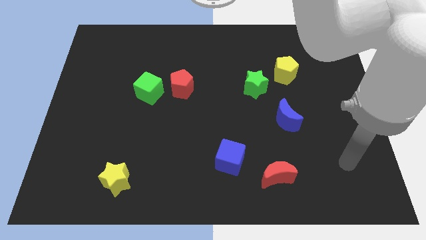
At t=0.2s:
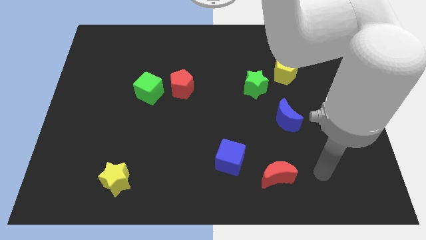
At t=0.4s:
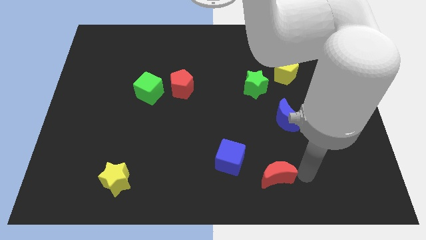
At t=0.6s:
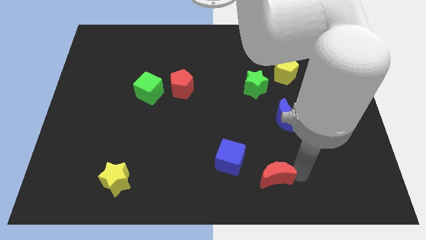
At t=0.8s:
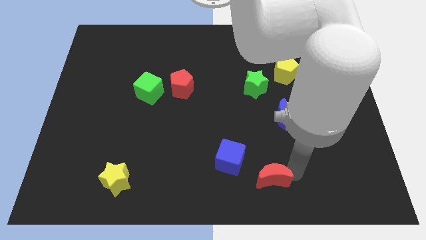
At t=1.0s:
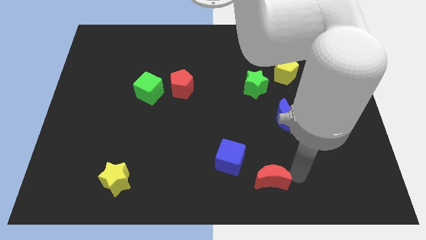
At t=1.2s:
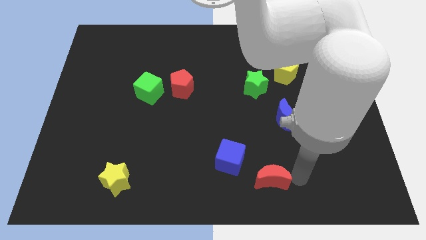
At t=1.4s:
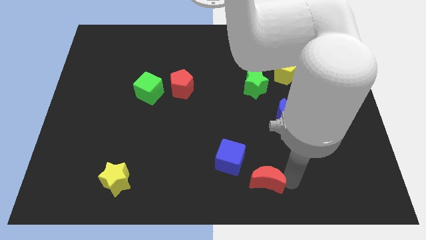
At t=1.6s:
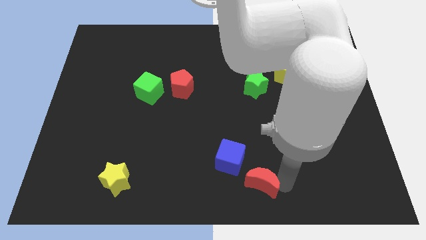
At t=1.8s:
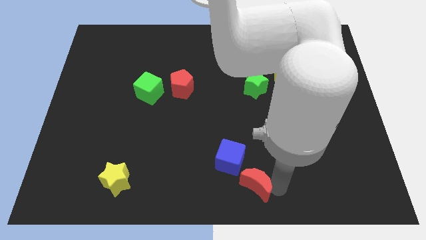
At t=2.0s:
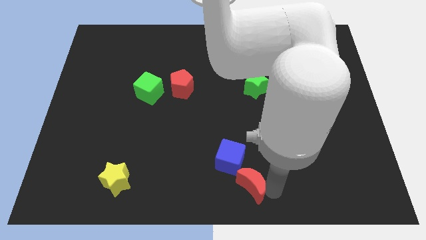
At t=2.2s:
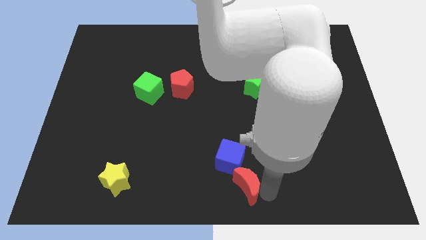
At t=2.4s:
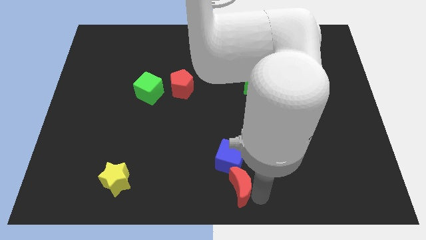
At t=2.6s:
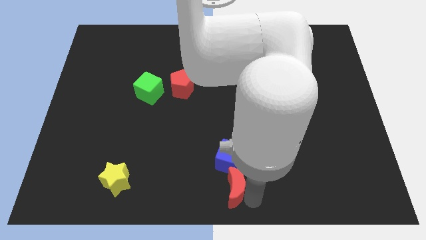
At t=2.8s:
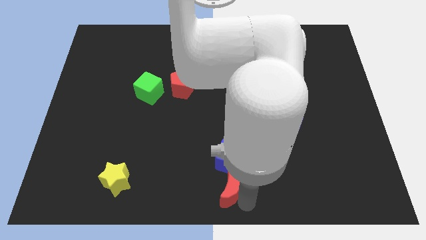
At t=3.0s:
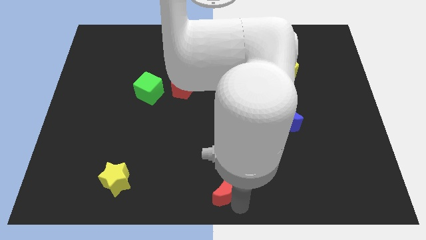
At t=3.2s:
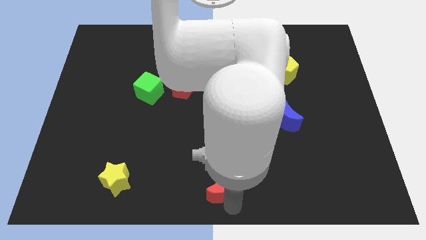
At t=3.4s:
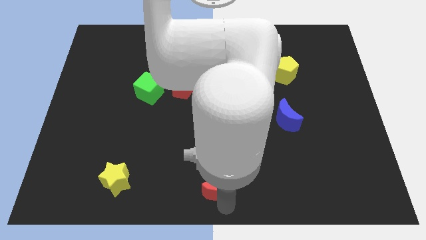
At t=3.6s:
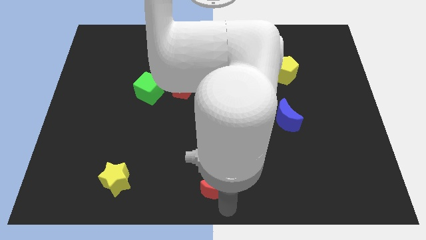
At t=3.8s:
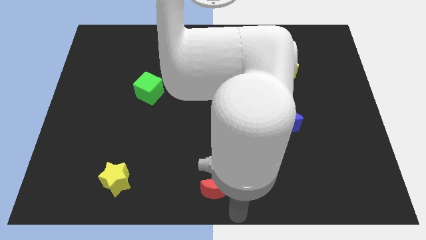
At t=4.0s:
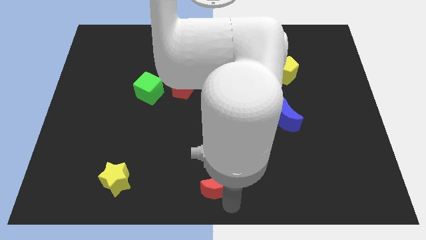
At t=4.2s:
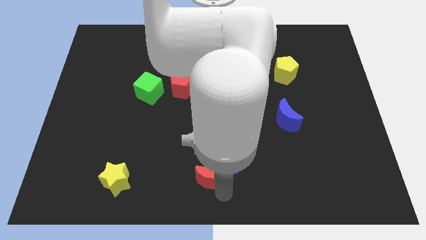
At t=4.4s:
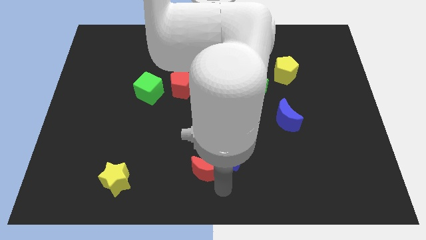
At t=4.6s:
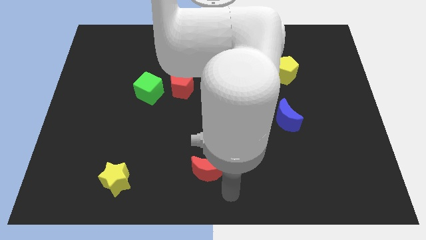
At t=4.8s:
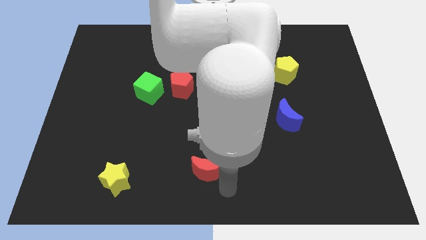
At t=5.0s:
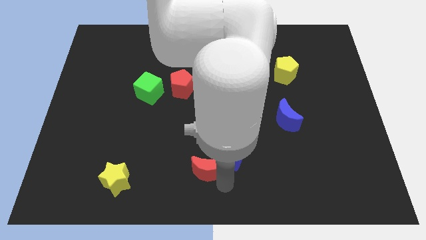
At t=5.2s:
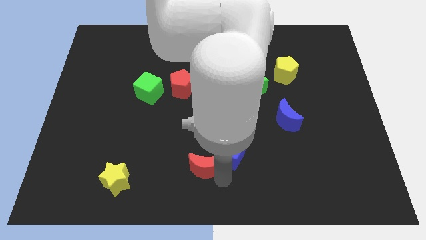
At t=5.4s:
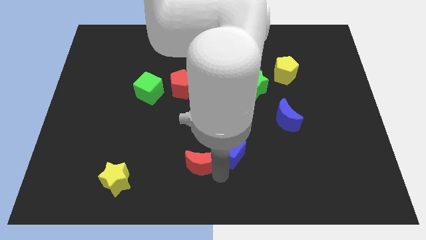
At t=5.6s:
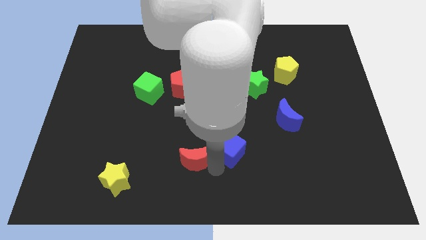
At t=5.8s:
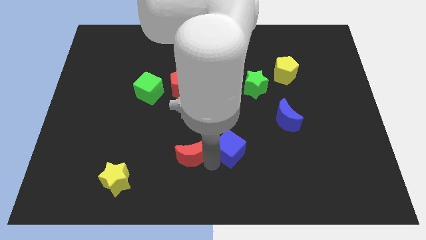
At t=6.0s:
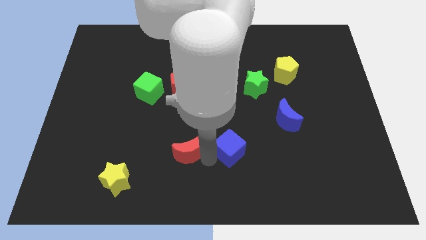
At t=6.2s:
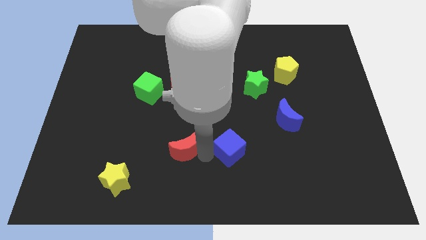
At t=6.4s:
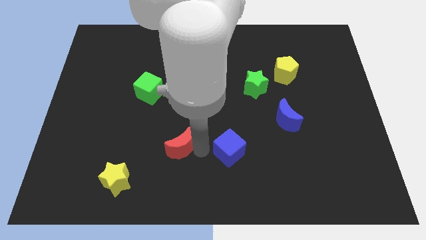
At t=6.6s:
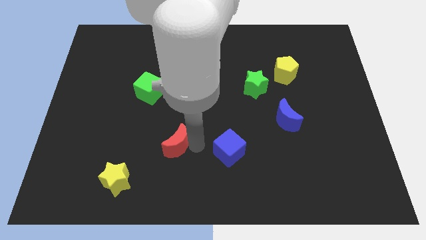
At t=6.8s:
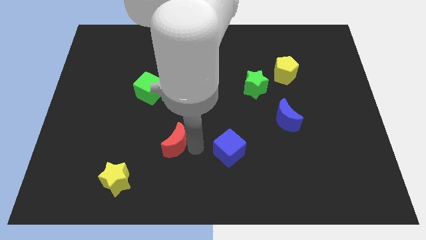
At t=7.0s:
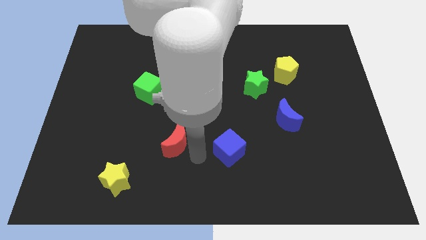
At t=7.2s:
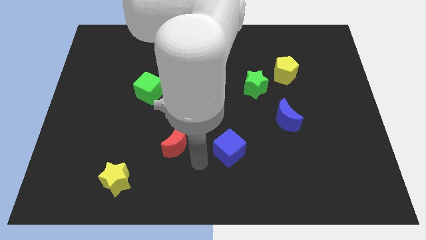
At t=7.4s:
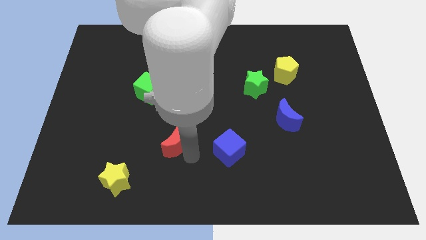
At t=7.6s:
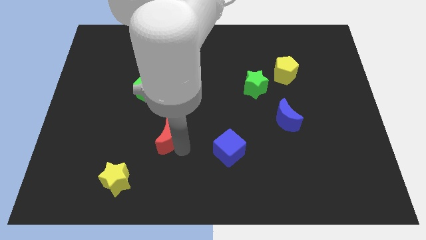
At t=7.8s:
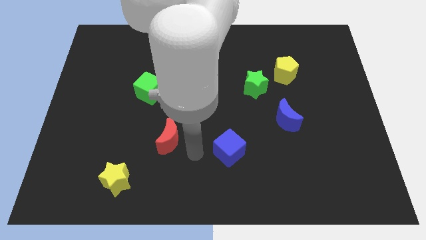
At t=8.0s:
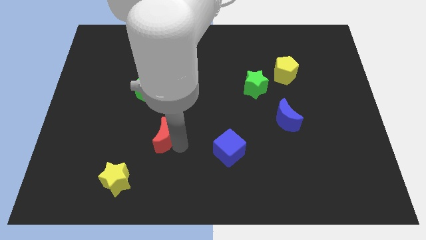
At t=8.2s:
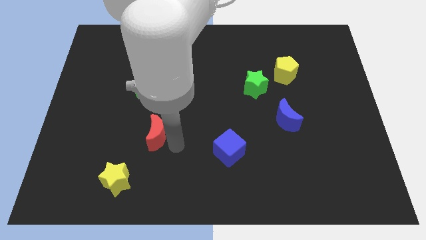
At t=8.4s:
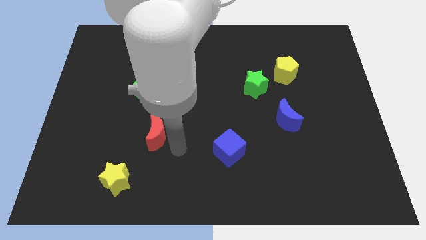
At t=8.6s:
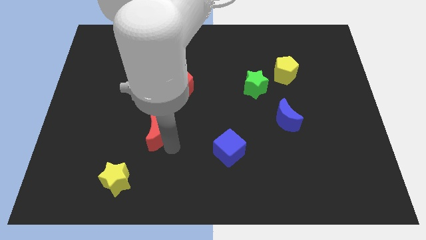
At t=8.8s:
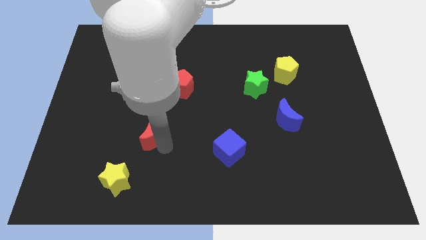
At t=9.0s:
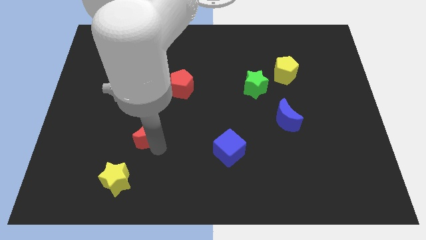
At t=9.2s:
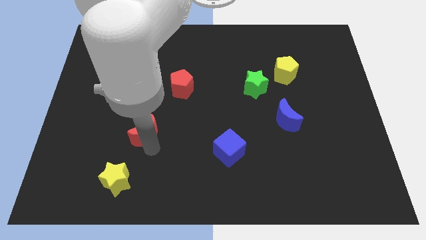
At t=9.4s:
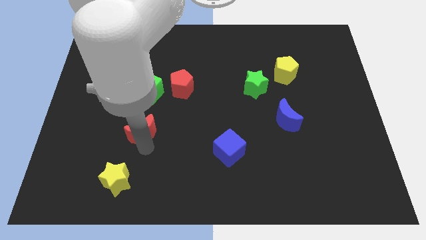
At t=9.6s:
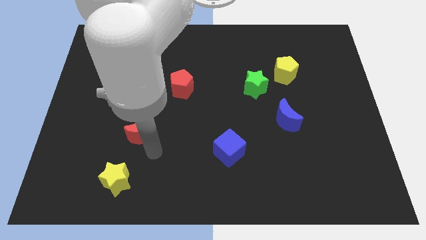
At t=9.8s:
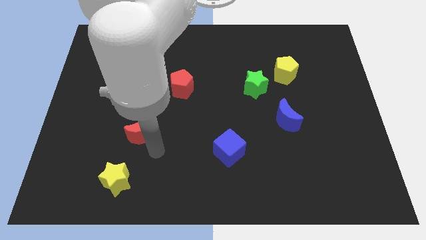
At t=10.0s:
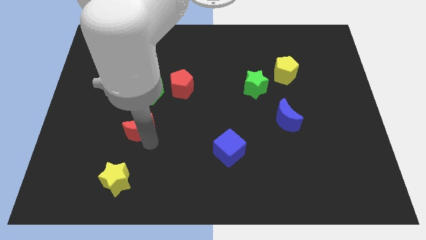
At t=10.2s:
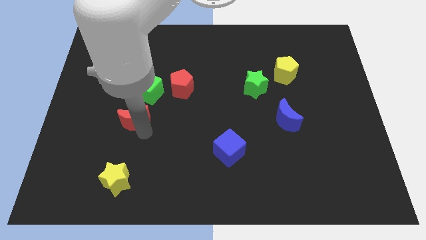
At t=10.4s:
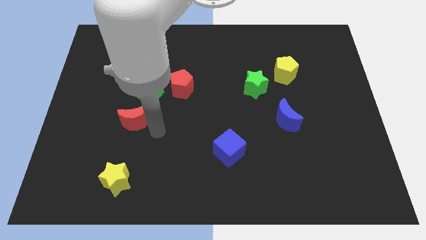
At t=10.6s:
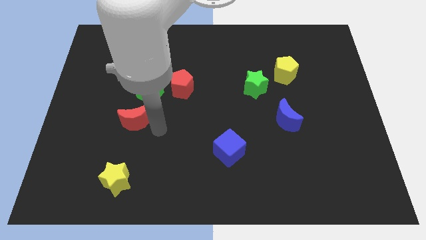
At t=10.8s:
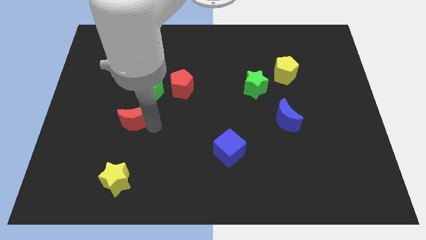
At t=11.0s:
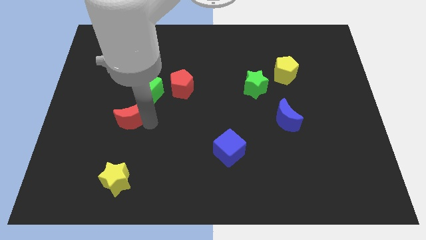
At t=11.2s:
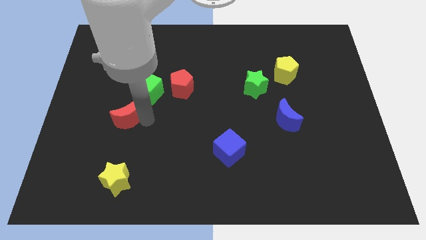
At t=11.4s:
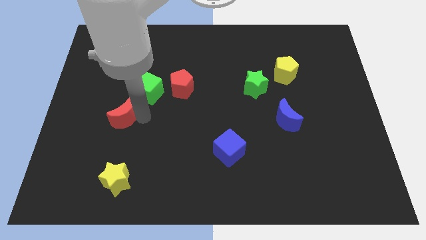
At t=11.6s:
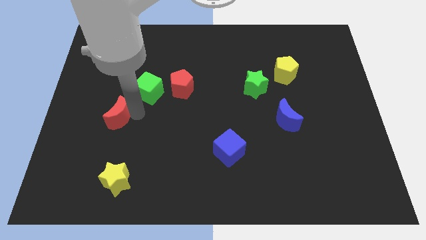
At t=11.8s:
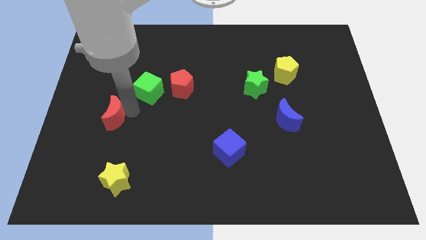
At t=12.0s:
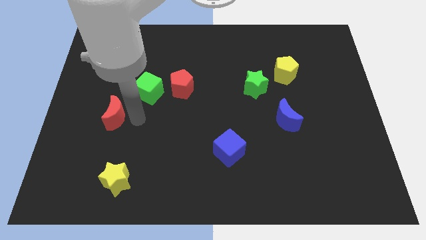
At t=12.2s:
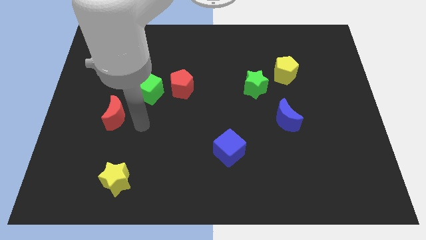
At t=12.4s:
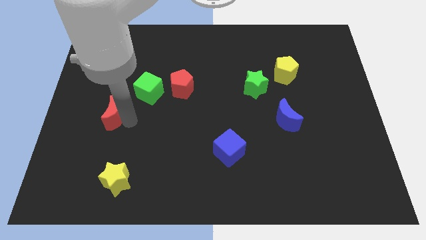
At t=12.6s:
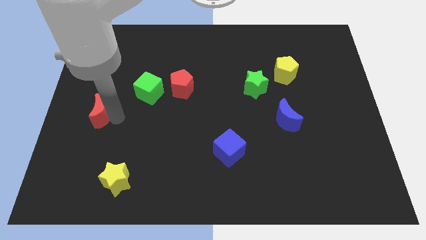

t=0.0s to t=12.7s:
move the red moon to the center left
